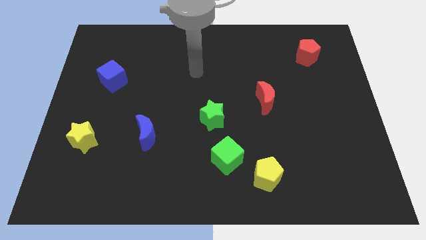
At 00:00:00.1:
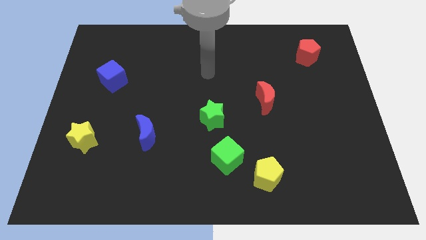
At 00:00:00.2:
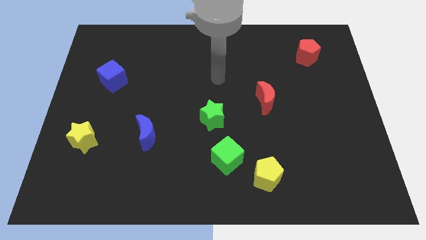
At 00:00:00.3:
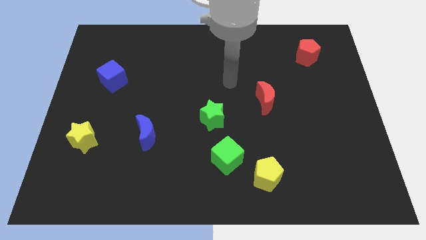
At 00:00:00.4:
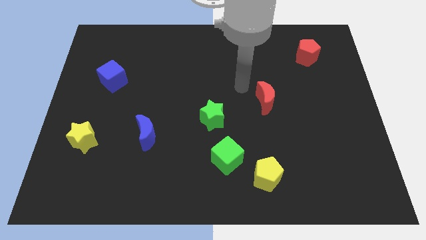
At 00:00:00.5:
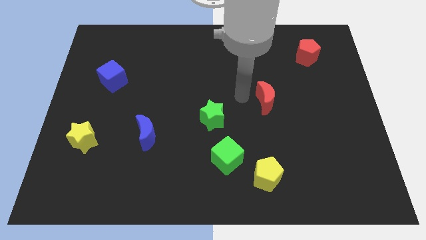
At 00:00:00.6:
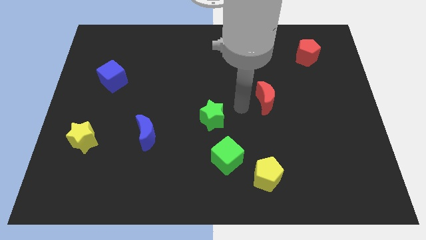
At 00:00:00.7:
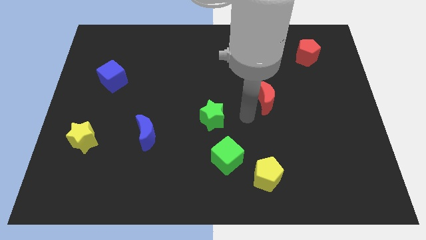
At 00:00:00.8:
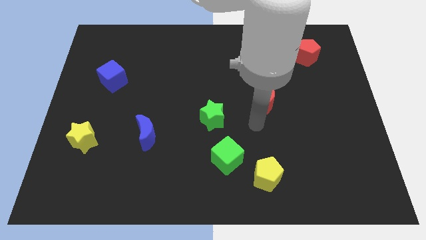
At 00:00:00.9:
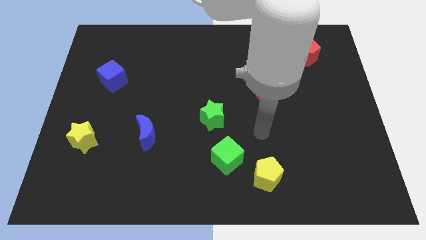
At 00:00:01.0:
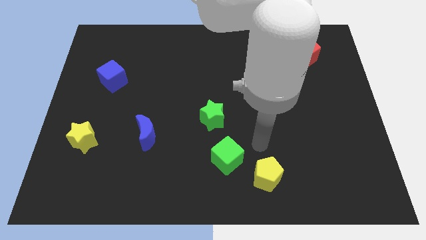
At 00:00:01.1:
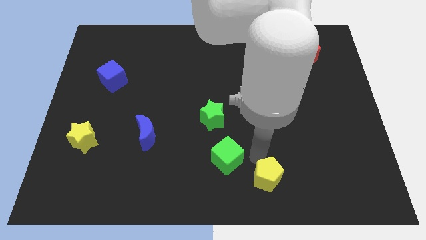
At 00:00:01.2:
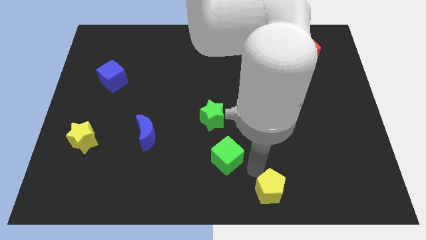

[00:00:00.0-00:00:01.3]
pull the green cube apart from the yellow pentagon

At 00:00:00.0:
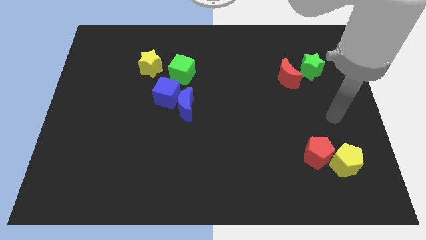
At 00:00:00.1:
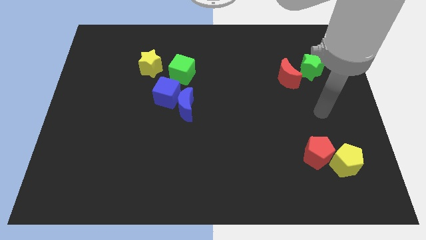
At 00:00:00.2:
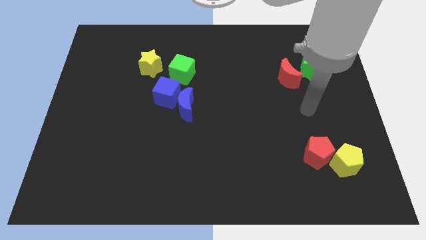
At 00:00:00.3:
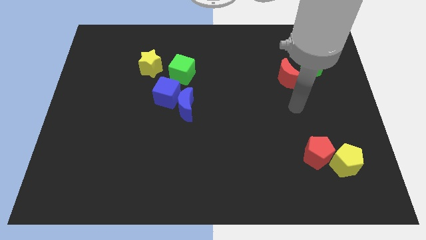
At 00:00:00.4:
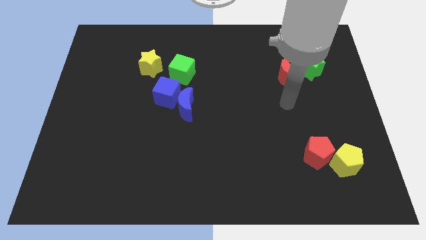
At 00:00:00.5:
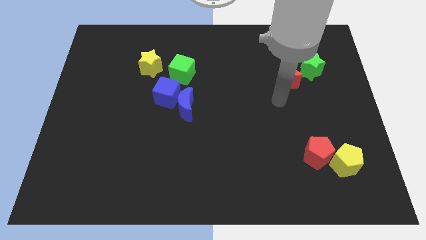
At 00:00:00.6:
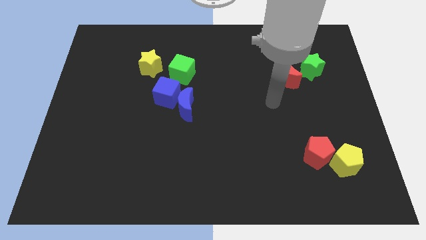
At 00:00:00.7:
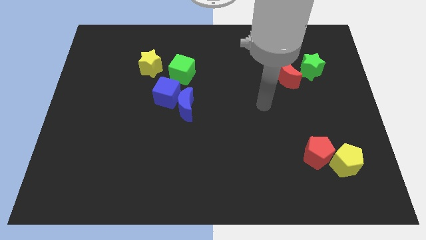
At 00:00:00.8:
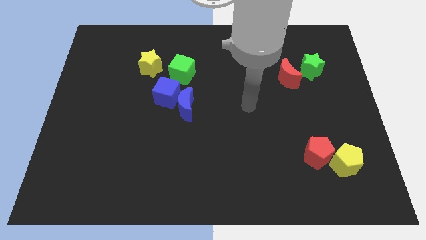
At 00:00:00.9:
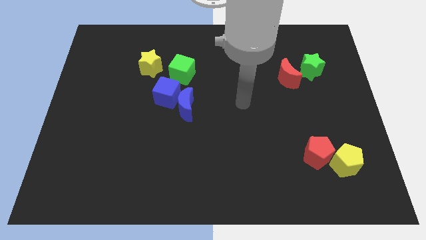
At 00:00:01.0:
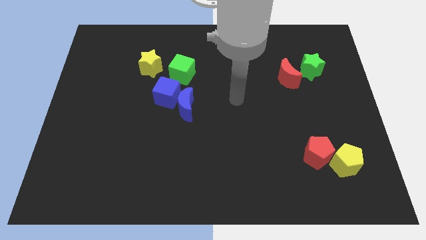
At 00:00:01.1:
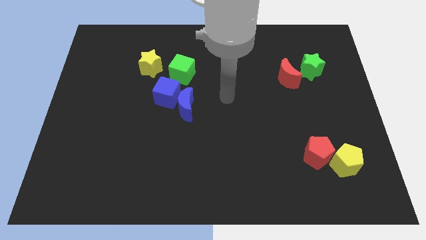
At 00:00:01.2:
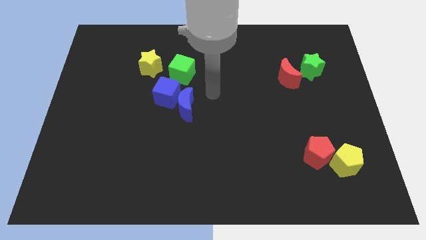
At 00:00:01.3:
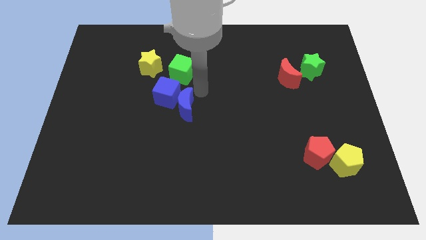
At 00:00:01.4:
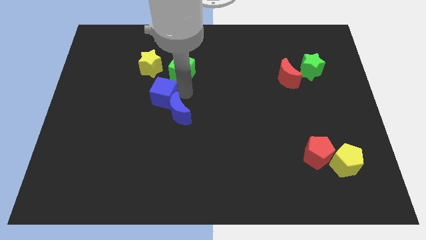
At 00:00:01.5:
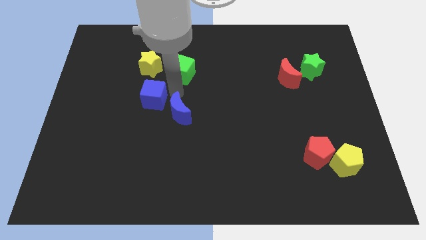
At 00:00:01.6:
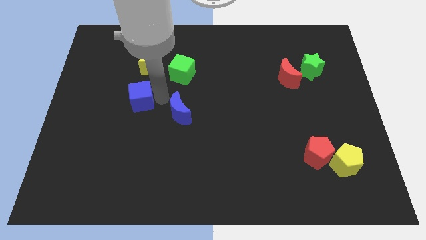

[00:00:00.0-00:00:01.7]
pull the blue moon apart from the blue cube

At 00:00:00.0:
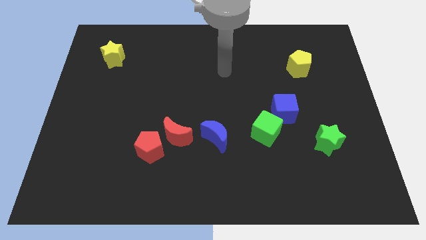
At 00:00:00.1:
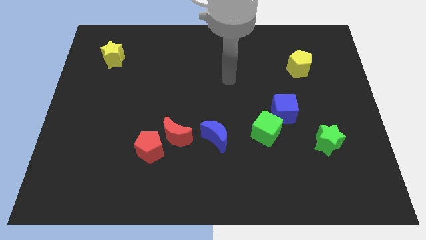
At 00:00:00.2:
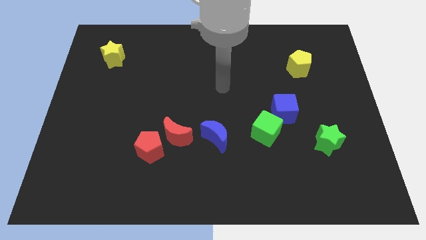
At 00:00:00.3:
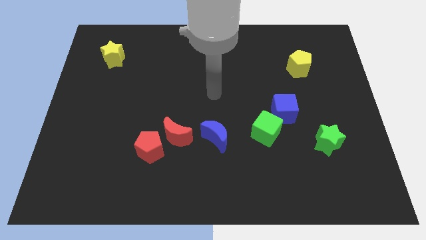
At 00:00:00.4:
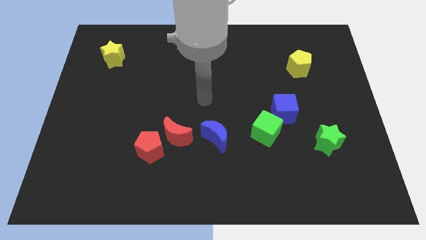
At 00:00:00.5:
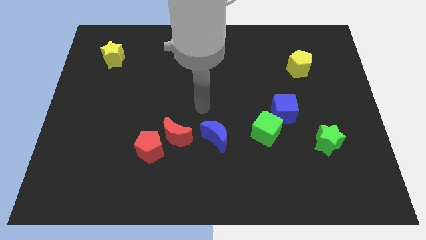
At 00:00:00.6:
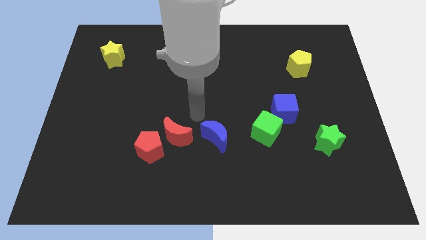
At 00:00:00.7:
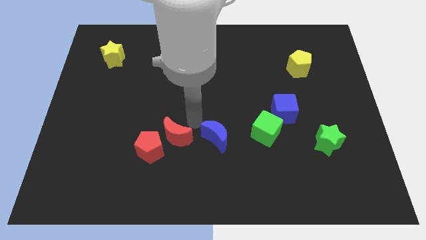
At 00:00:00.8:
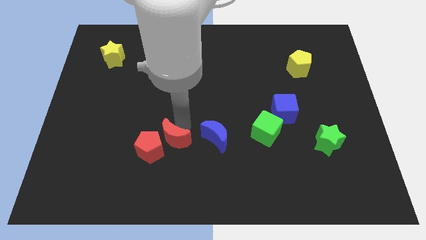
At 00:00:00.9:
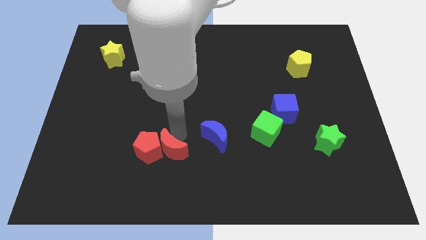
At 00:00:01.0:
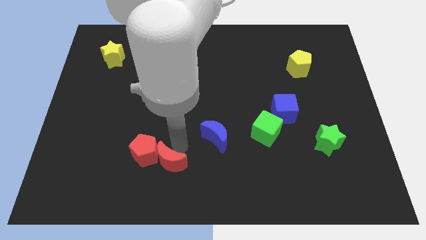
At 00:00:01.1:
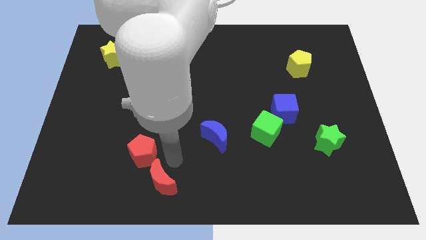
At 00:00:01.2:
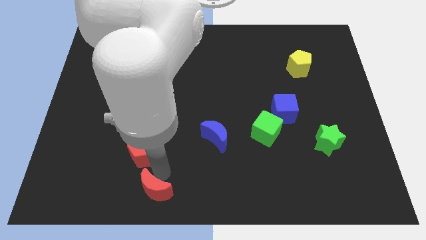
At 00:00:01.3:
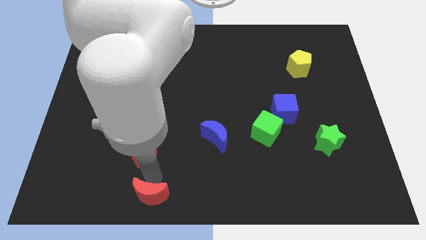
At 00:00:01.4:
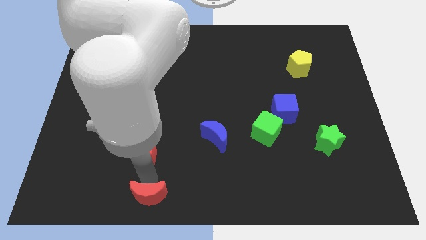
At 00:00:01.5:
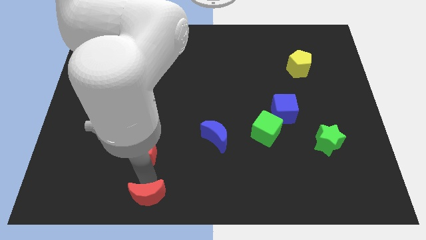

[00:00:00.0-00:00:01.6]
move the red pentagon away from the red moon

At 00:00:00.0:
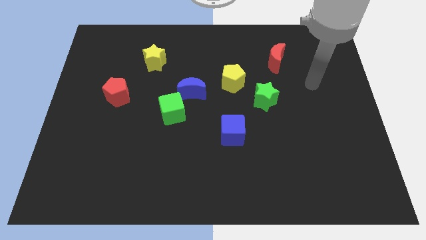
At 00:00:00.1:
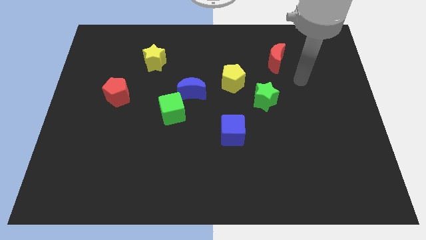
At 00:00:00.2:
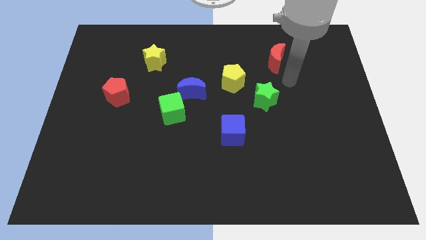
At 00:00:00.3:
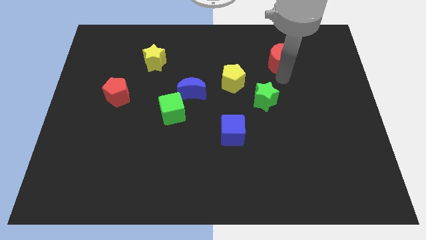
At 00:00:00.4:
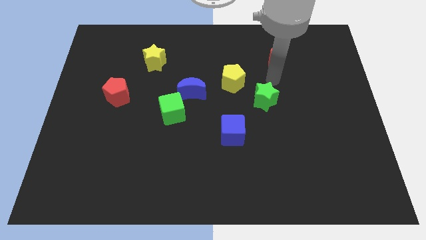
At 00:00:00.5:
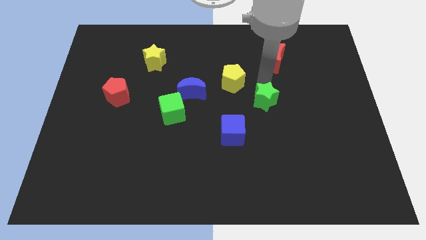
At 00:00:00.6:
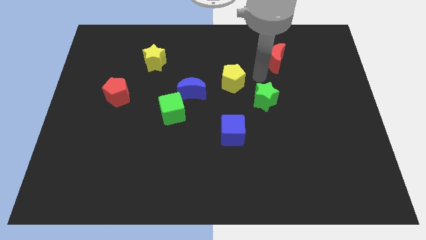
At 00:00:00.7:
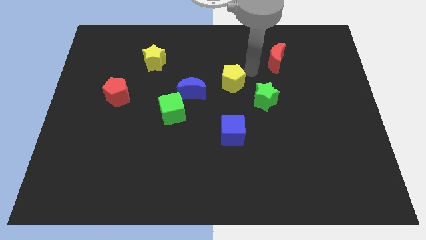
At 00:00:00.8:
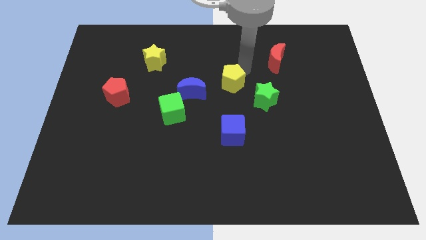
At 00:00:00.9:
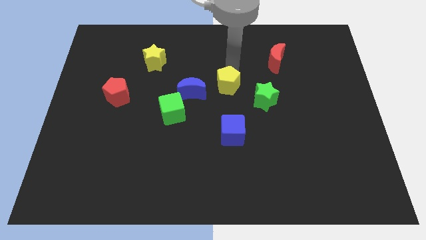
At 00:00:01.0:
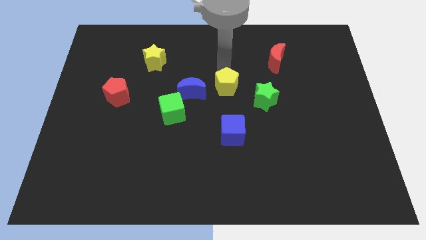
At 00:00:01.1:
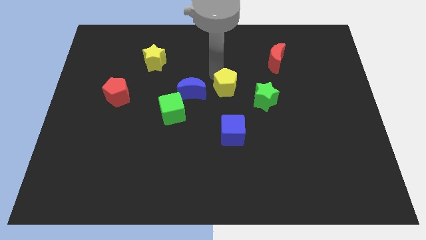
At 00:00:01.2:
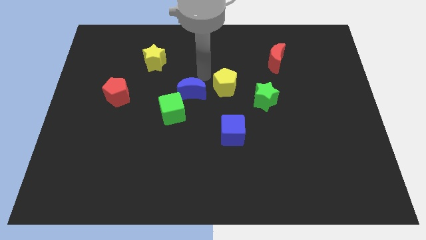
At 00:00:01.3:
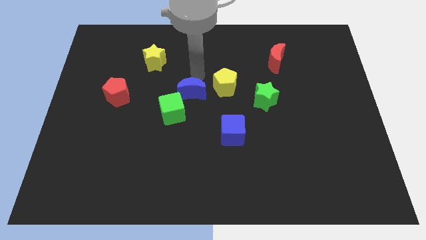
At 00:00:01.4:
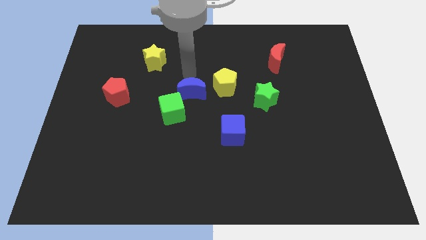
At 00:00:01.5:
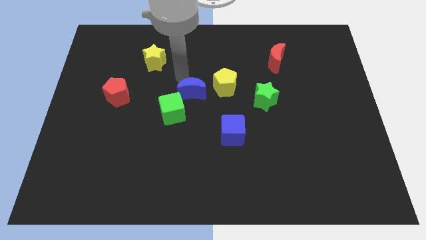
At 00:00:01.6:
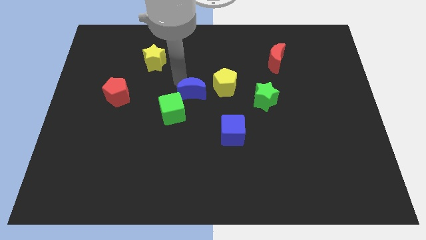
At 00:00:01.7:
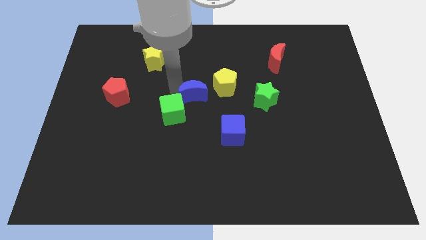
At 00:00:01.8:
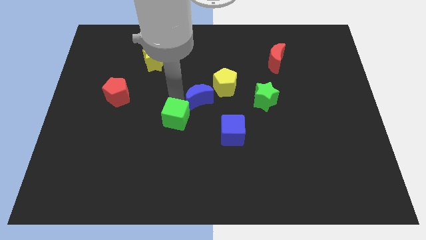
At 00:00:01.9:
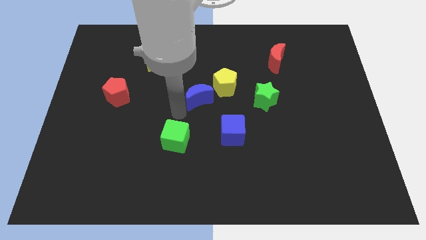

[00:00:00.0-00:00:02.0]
separate the blue moon from the green cube

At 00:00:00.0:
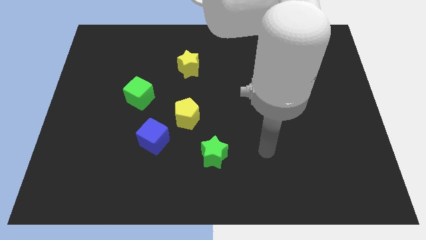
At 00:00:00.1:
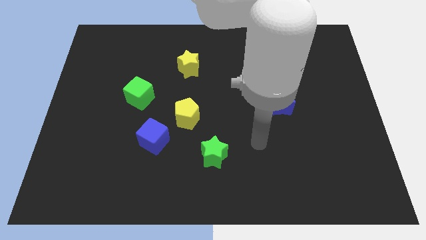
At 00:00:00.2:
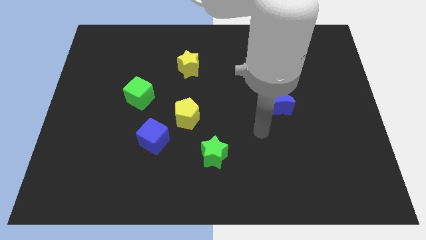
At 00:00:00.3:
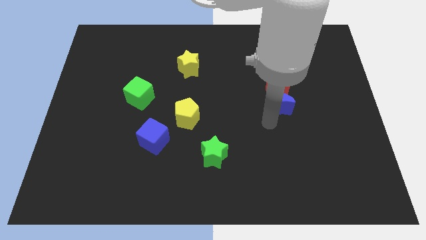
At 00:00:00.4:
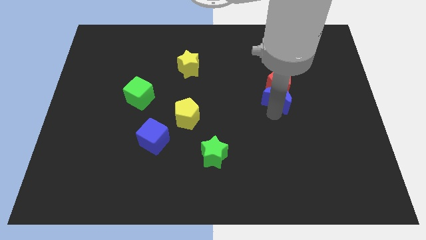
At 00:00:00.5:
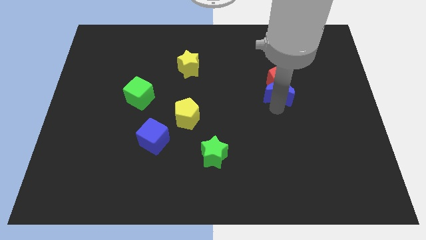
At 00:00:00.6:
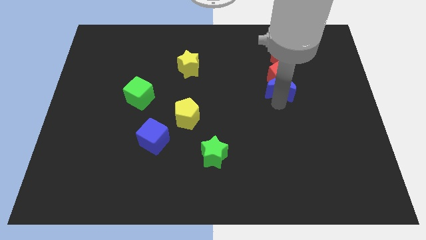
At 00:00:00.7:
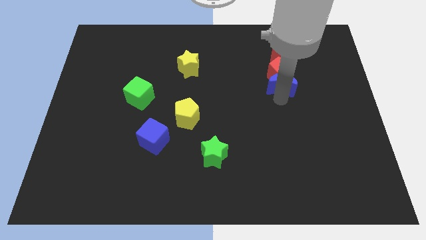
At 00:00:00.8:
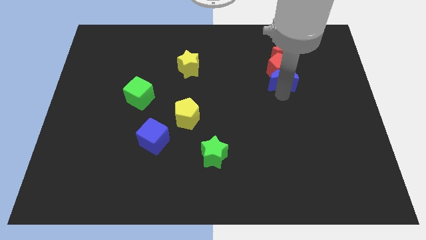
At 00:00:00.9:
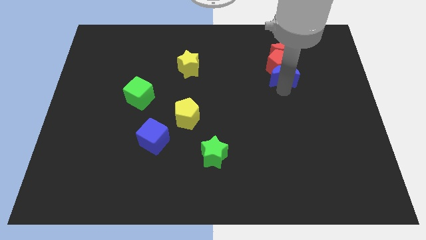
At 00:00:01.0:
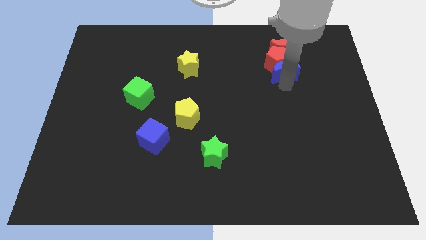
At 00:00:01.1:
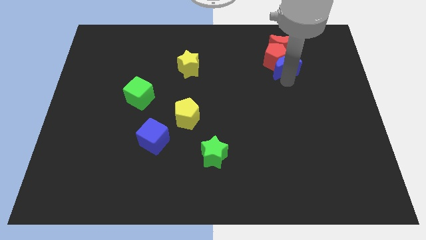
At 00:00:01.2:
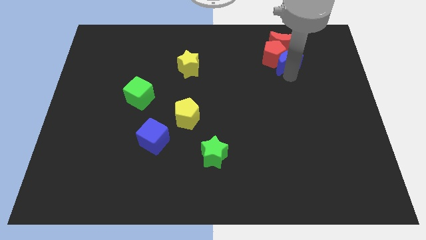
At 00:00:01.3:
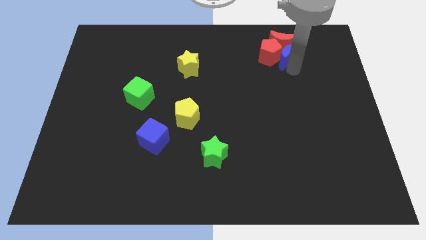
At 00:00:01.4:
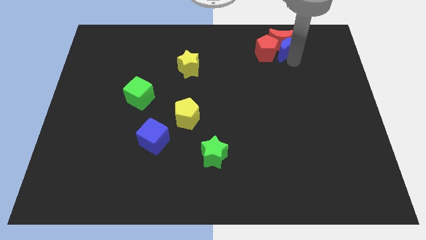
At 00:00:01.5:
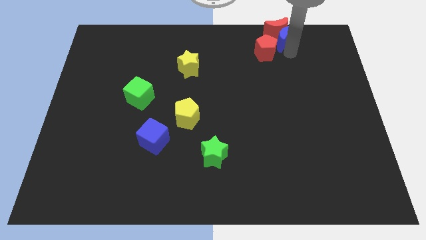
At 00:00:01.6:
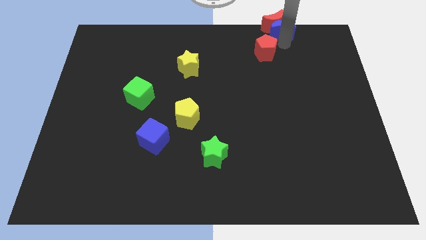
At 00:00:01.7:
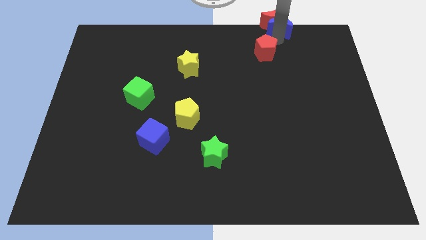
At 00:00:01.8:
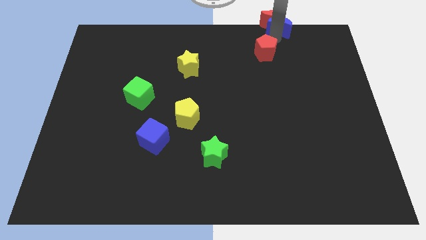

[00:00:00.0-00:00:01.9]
separate the red pentagon from the blue moon

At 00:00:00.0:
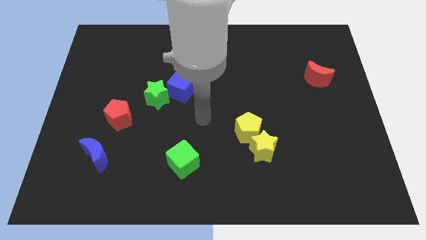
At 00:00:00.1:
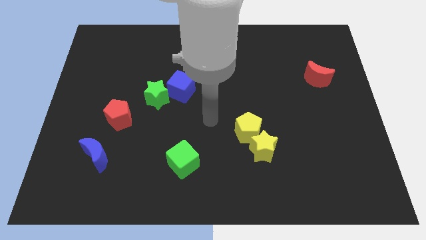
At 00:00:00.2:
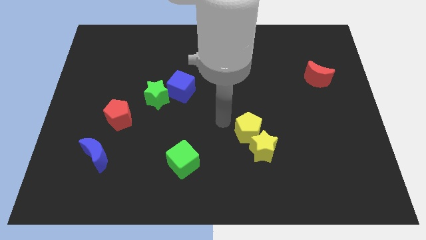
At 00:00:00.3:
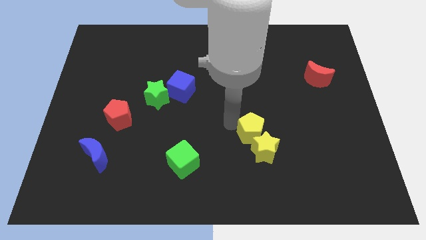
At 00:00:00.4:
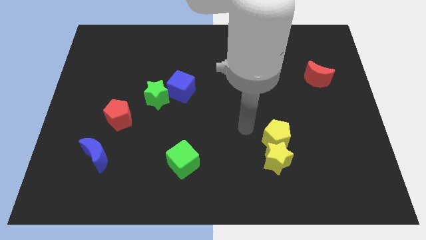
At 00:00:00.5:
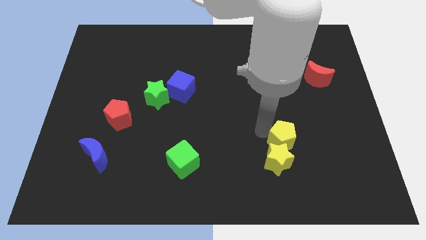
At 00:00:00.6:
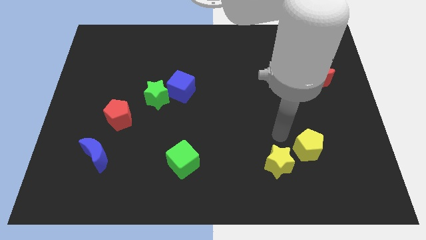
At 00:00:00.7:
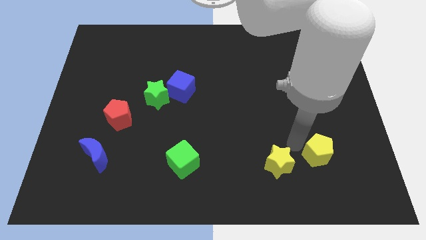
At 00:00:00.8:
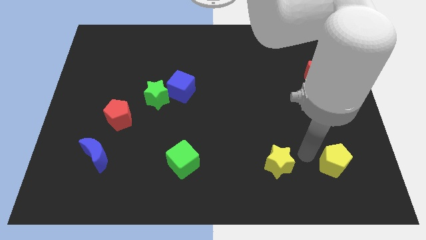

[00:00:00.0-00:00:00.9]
move the yellow star away from the yellow pentagon
